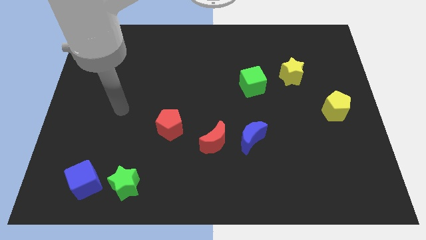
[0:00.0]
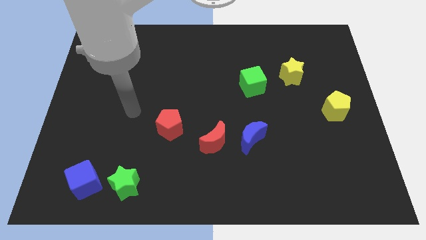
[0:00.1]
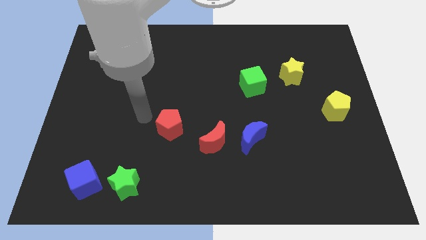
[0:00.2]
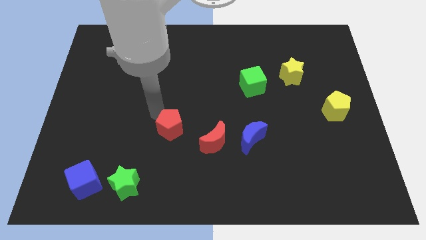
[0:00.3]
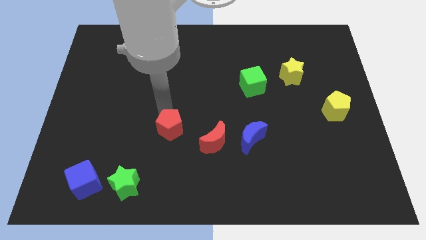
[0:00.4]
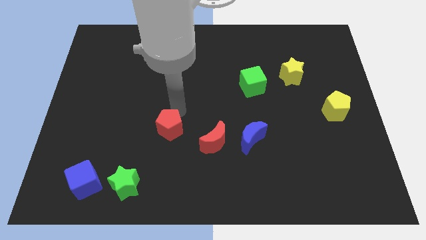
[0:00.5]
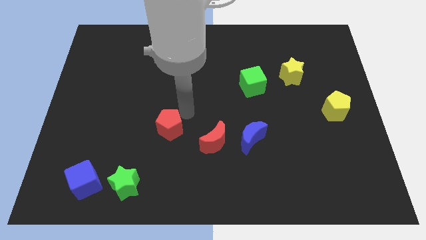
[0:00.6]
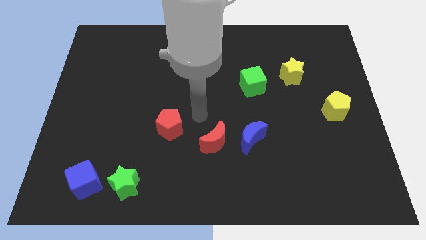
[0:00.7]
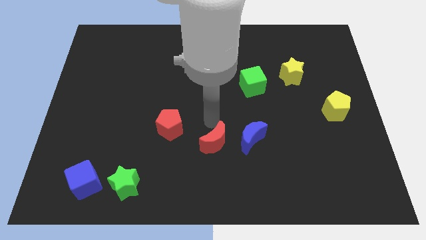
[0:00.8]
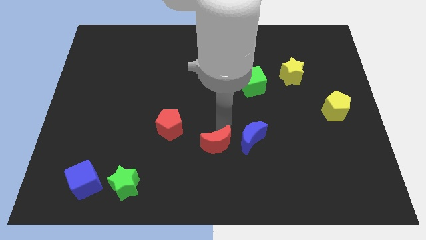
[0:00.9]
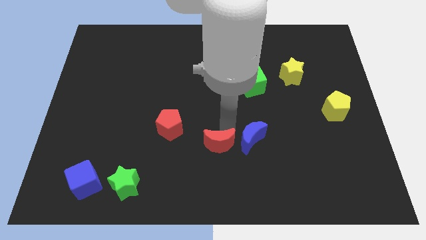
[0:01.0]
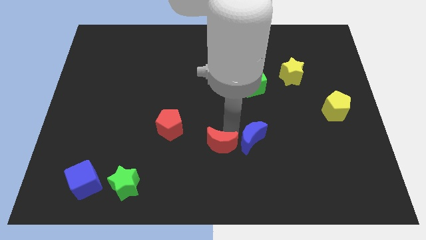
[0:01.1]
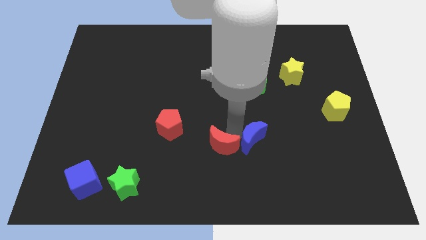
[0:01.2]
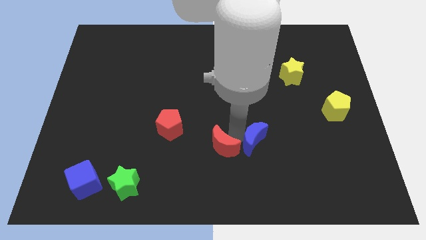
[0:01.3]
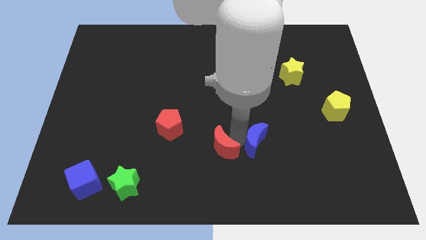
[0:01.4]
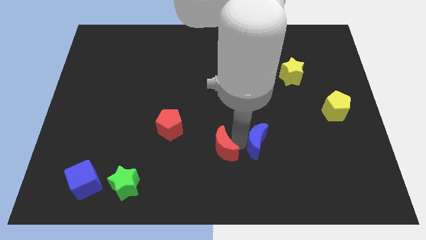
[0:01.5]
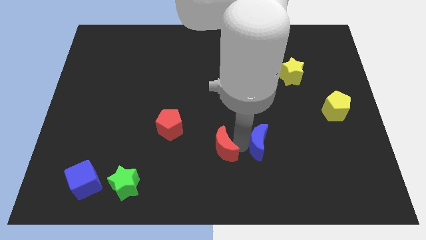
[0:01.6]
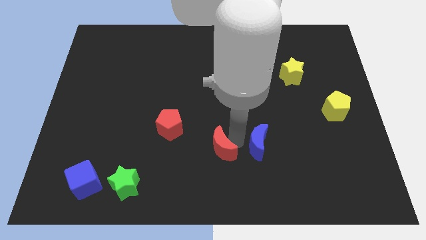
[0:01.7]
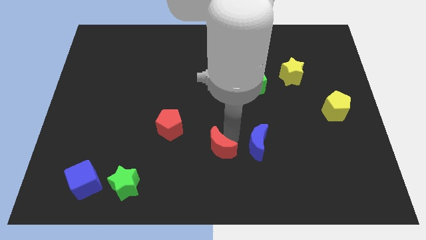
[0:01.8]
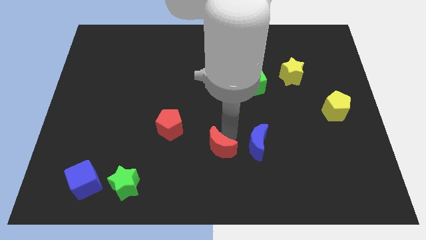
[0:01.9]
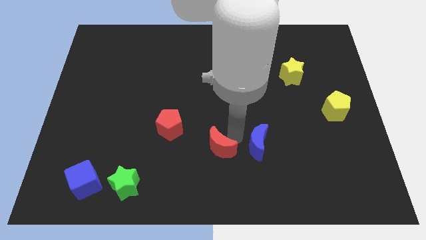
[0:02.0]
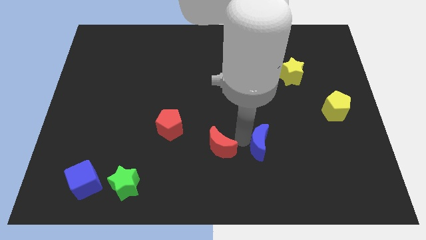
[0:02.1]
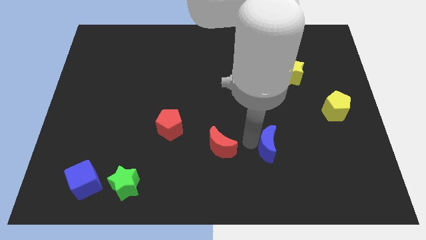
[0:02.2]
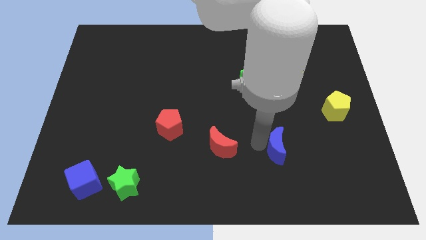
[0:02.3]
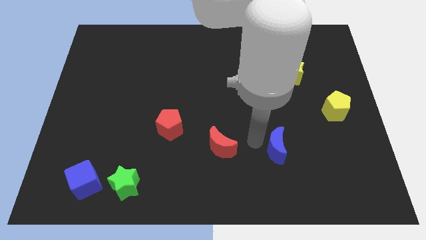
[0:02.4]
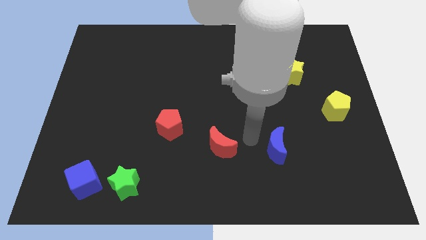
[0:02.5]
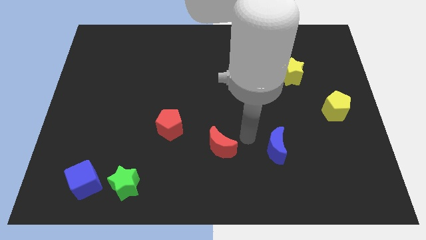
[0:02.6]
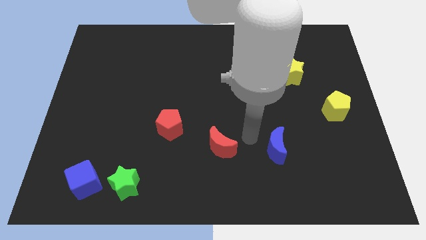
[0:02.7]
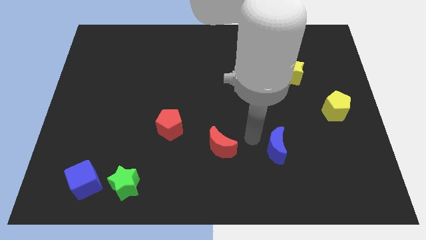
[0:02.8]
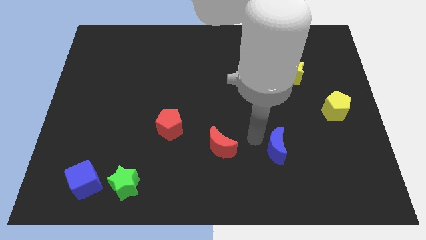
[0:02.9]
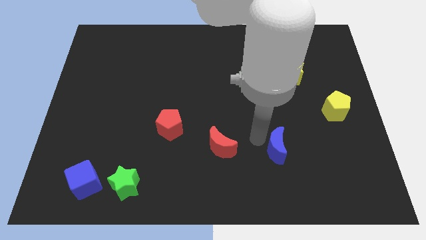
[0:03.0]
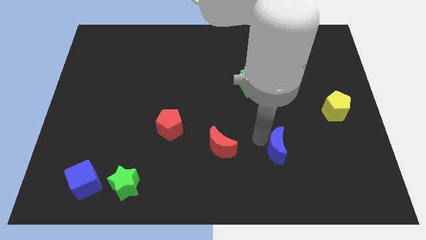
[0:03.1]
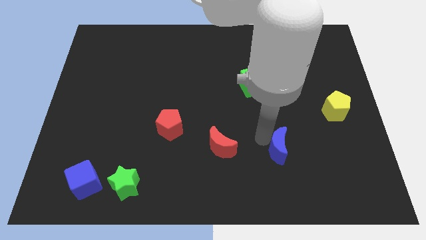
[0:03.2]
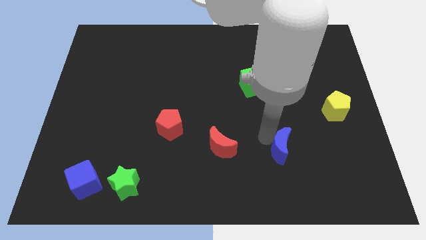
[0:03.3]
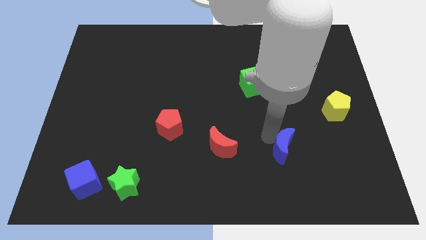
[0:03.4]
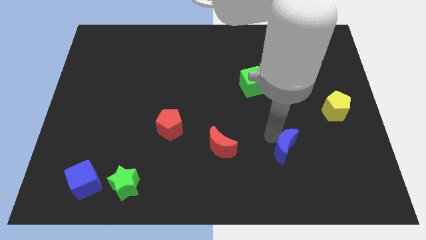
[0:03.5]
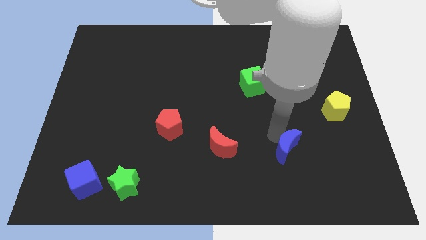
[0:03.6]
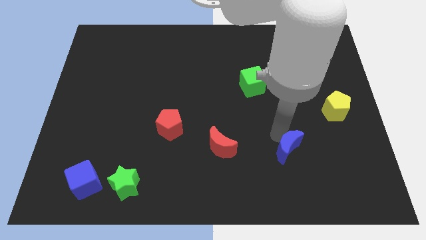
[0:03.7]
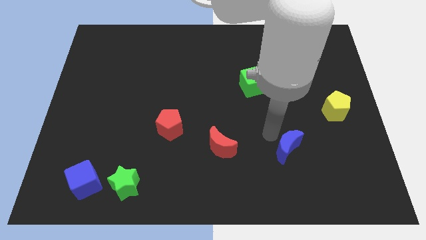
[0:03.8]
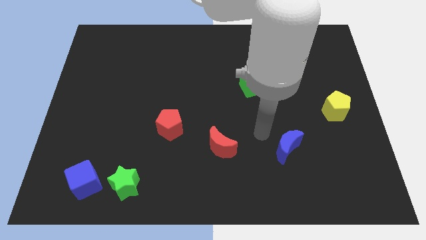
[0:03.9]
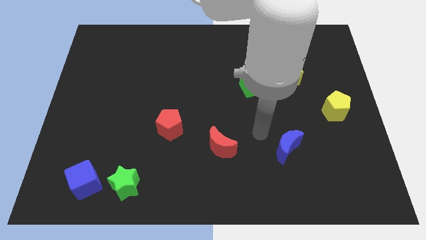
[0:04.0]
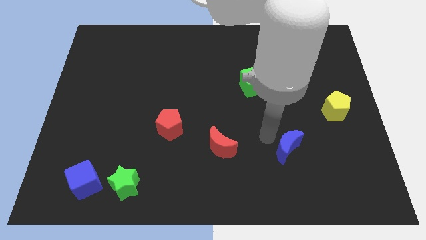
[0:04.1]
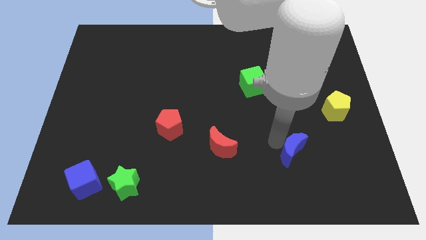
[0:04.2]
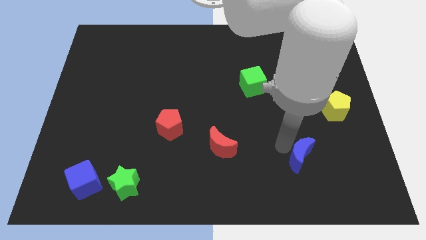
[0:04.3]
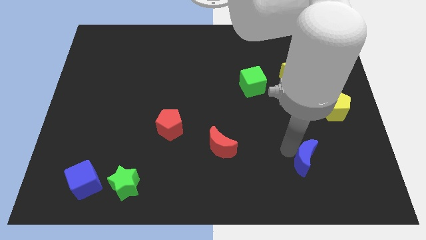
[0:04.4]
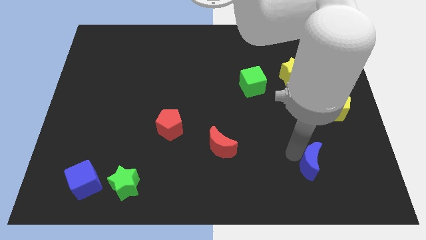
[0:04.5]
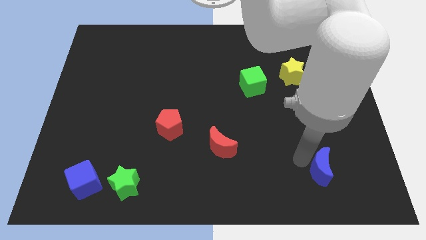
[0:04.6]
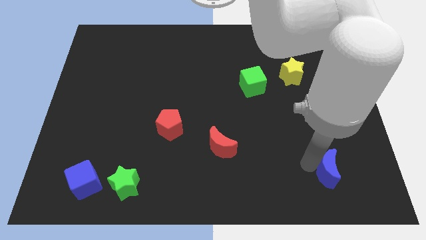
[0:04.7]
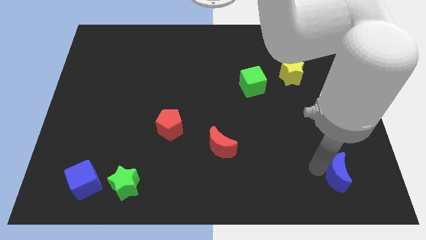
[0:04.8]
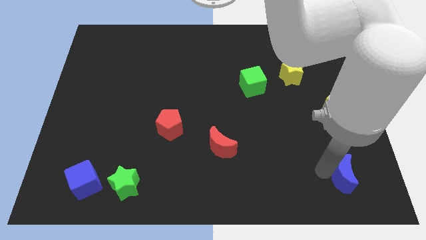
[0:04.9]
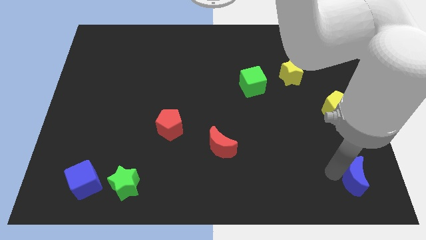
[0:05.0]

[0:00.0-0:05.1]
put the blue moon to the bottom right corner

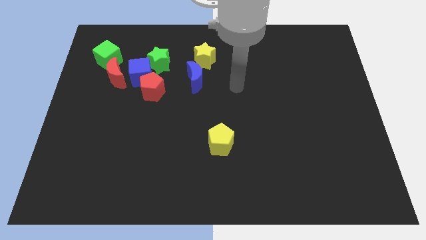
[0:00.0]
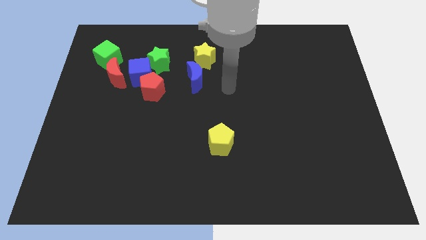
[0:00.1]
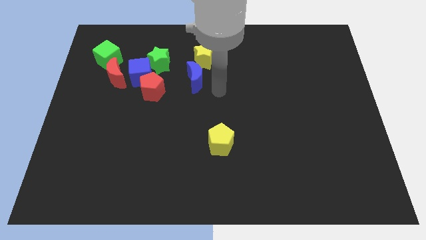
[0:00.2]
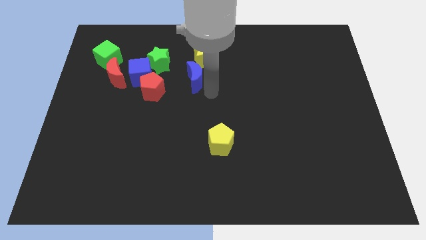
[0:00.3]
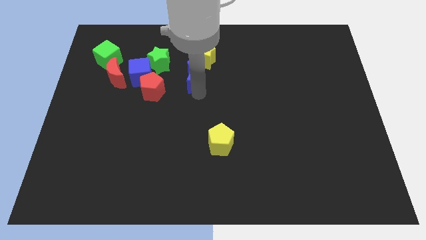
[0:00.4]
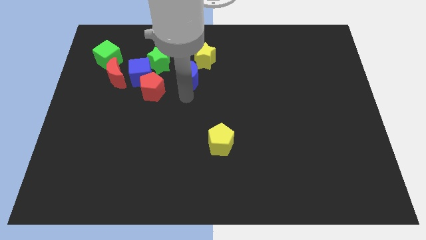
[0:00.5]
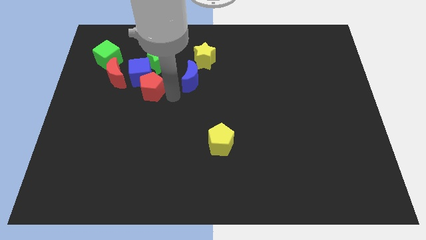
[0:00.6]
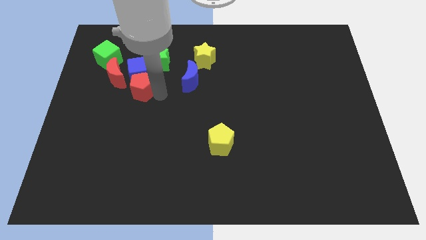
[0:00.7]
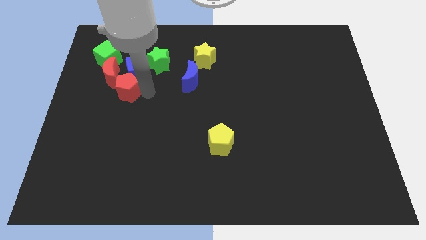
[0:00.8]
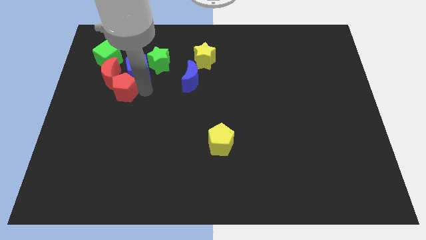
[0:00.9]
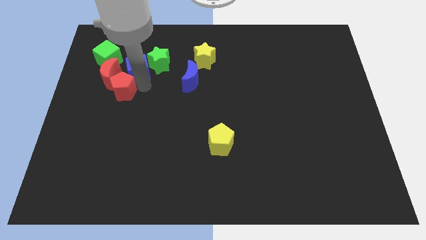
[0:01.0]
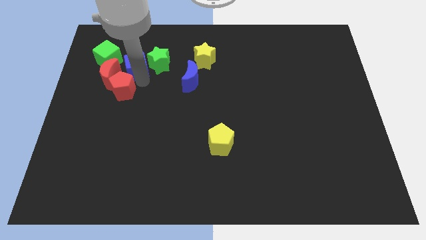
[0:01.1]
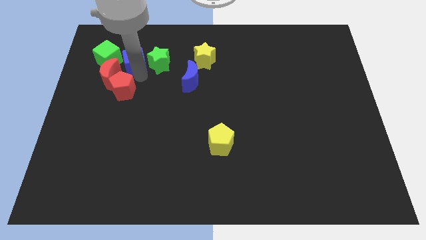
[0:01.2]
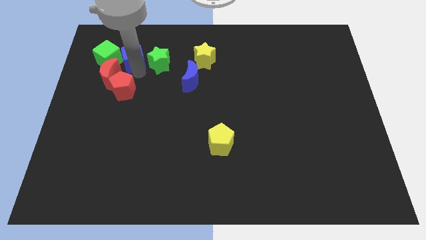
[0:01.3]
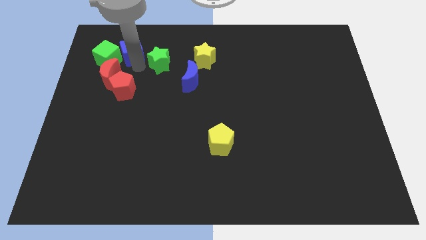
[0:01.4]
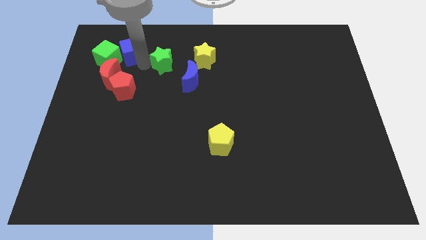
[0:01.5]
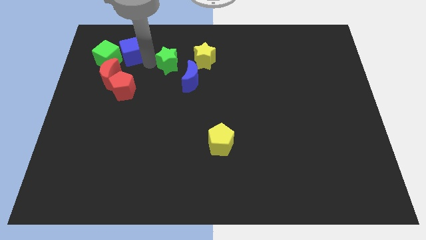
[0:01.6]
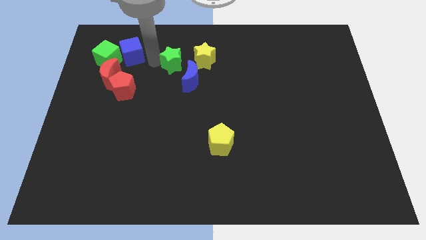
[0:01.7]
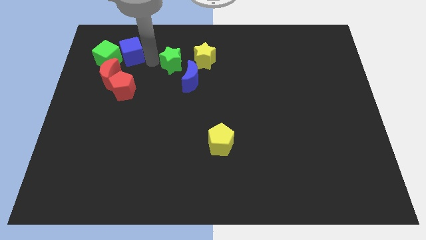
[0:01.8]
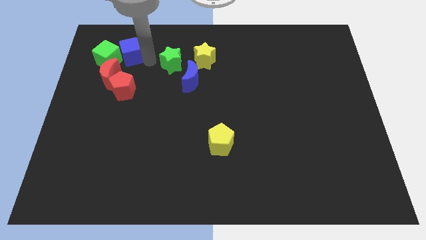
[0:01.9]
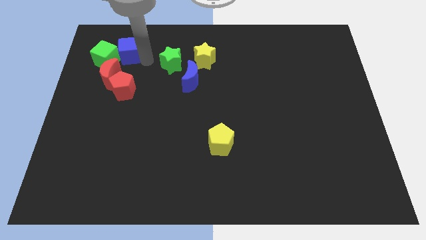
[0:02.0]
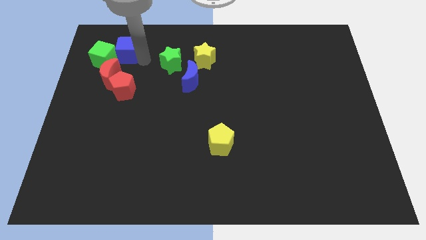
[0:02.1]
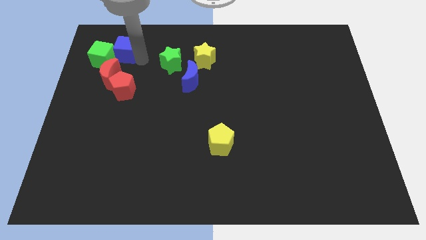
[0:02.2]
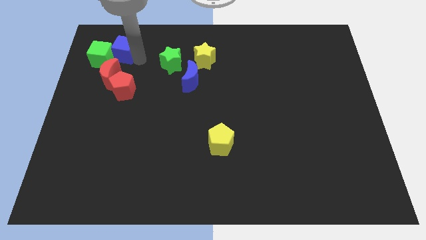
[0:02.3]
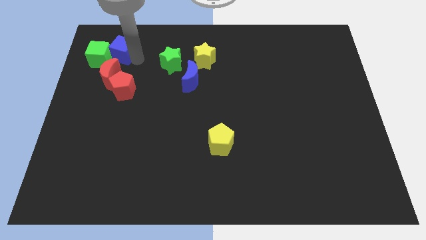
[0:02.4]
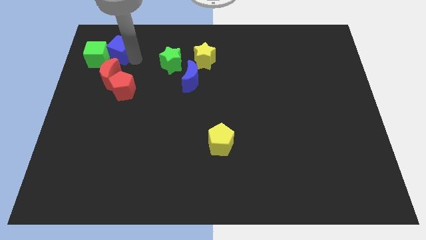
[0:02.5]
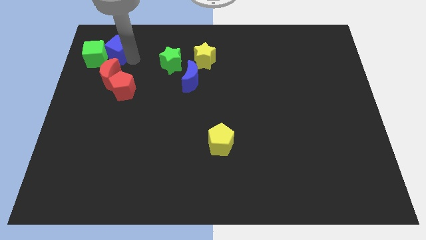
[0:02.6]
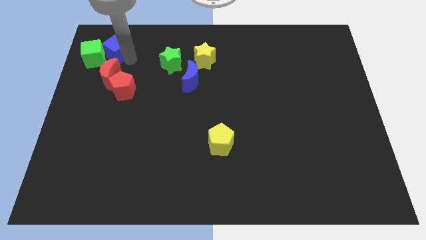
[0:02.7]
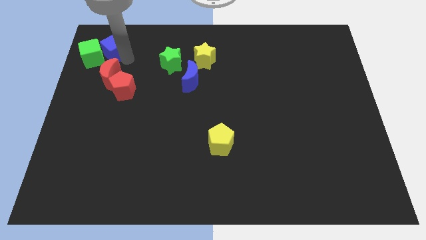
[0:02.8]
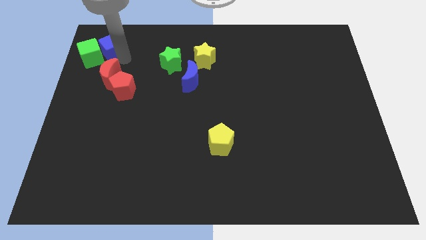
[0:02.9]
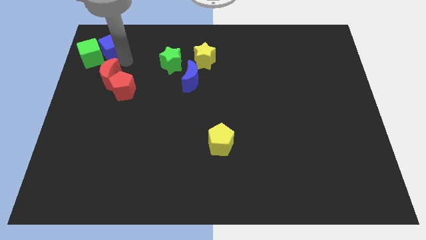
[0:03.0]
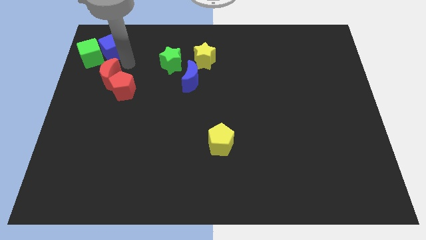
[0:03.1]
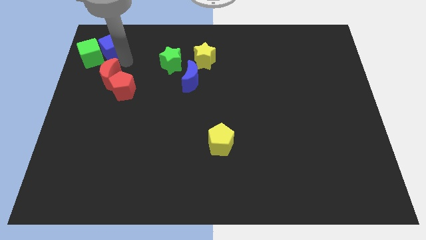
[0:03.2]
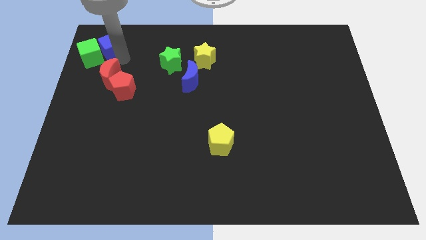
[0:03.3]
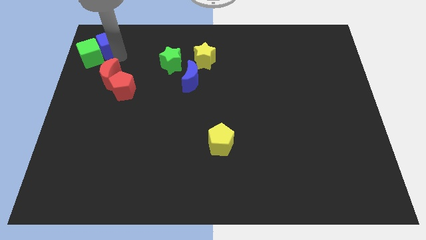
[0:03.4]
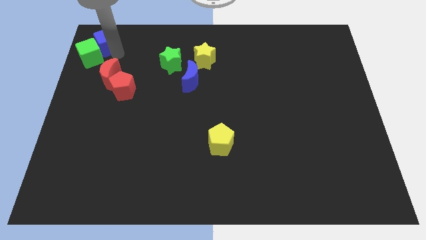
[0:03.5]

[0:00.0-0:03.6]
put the blue cube to the top left of the board
